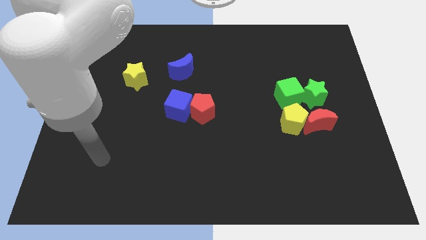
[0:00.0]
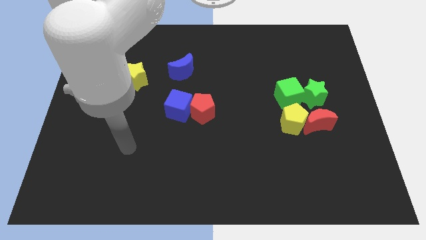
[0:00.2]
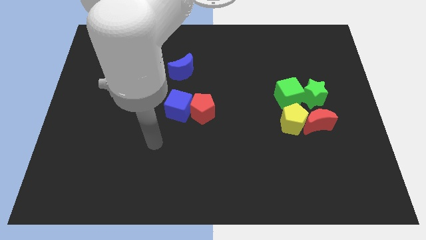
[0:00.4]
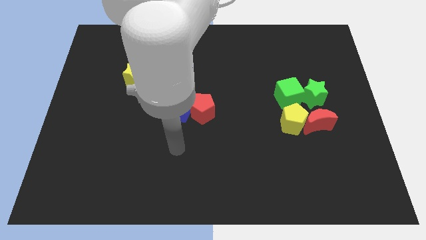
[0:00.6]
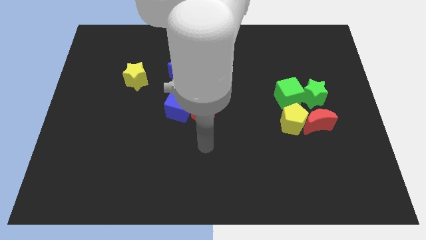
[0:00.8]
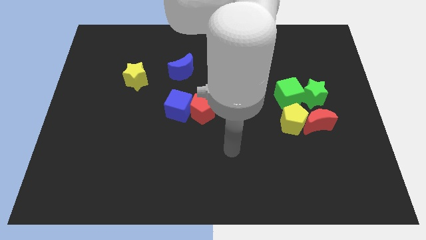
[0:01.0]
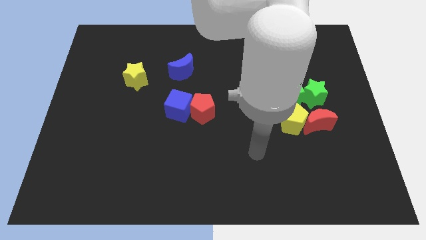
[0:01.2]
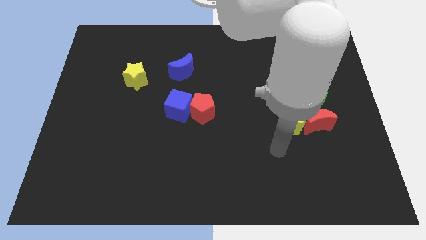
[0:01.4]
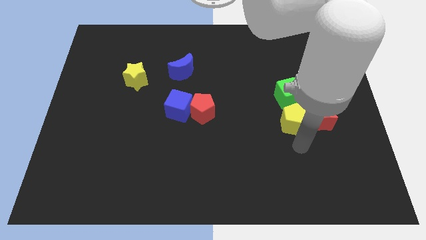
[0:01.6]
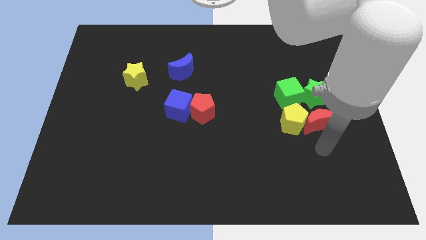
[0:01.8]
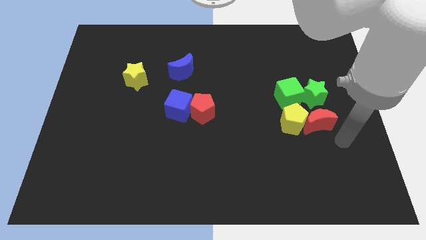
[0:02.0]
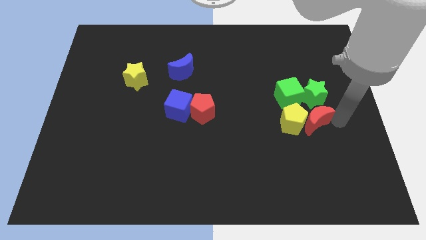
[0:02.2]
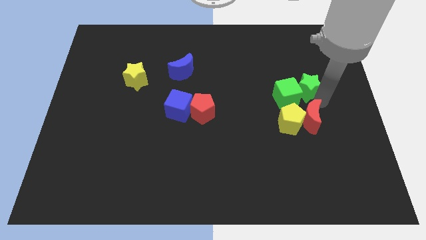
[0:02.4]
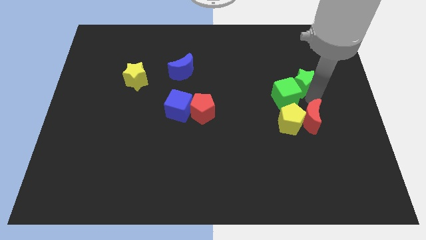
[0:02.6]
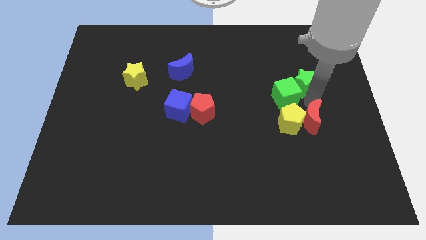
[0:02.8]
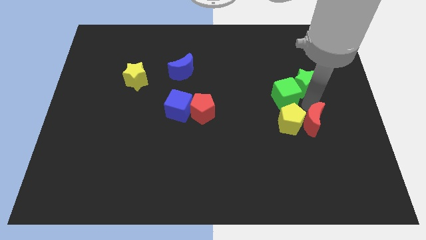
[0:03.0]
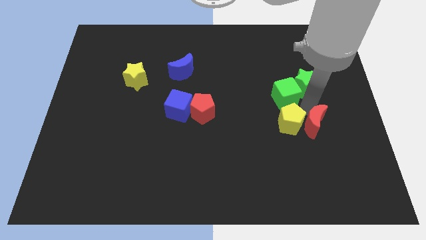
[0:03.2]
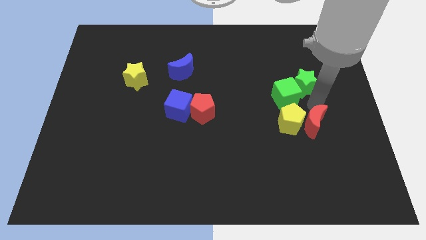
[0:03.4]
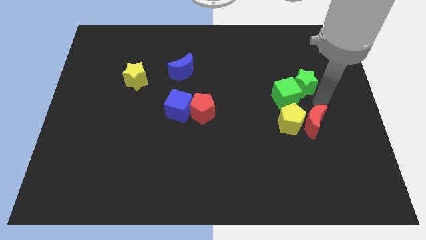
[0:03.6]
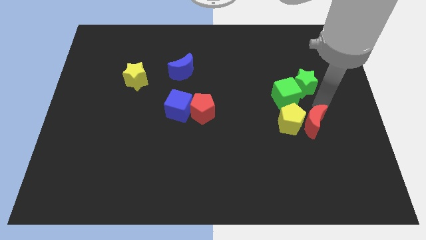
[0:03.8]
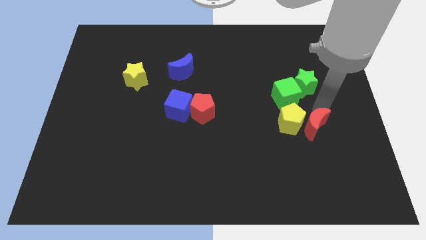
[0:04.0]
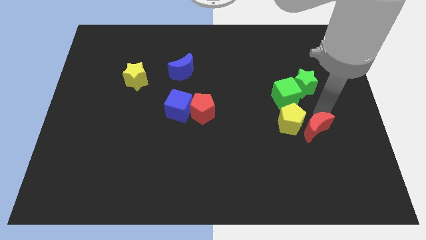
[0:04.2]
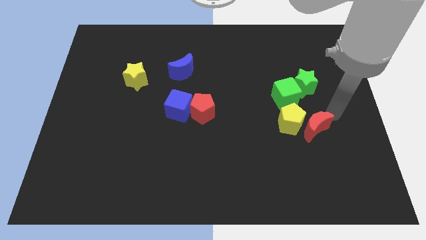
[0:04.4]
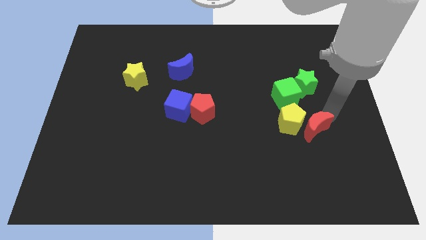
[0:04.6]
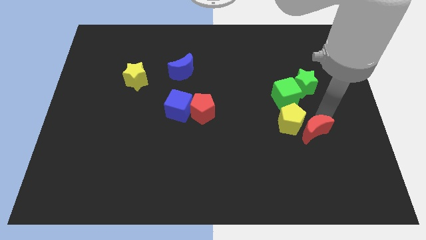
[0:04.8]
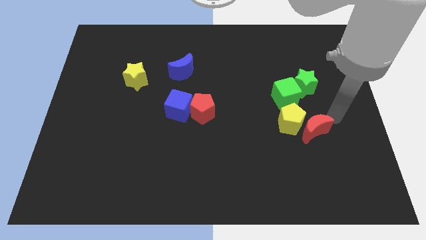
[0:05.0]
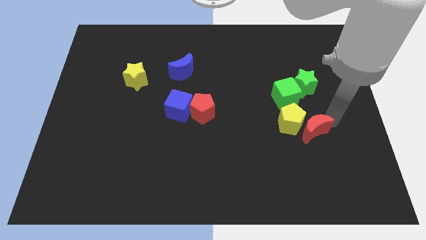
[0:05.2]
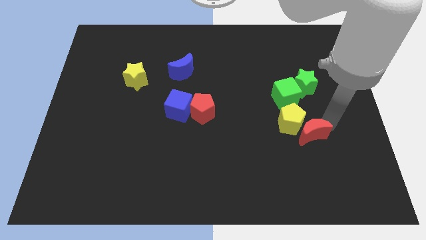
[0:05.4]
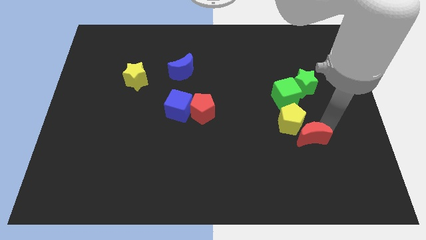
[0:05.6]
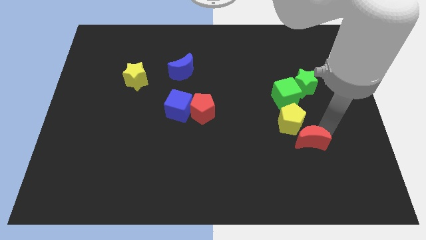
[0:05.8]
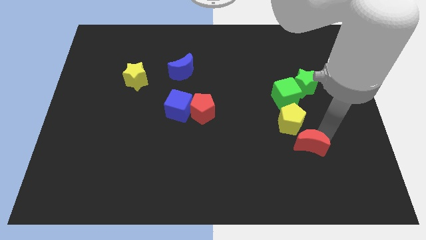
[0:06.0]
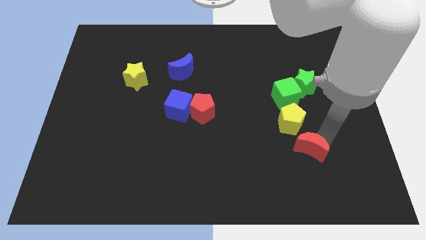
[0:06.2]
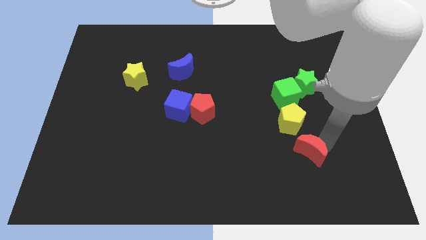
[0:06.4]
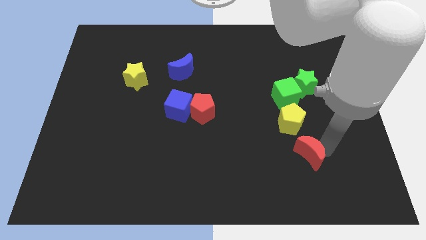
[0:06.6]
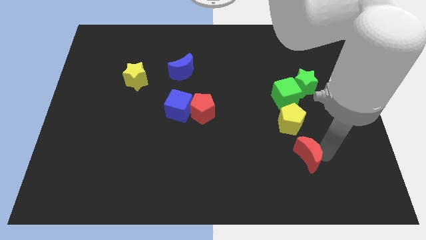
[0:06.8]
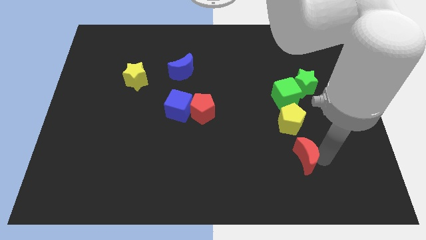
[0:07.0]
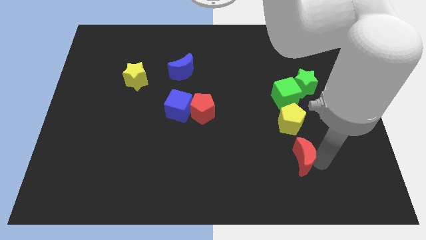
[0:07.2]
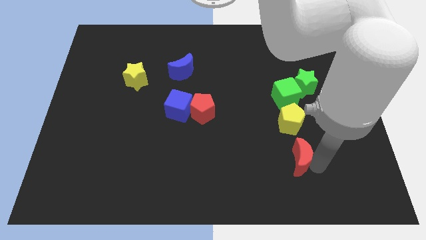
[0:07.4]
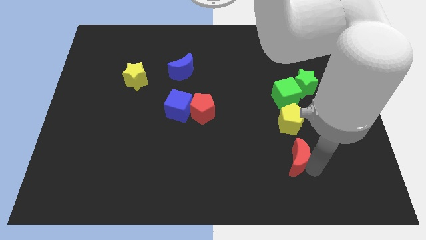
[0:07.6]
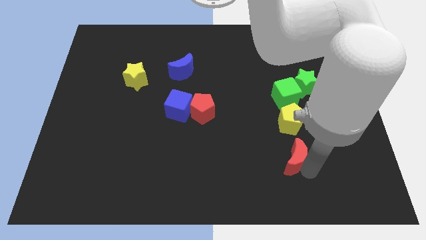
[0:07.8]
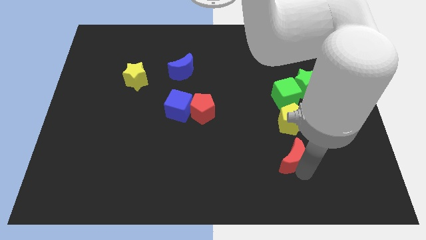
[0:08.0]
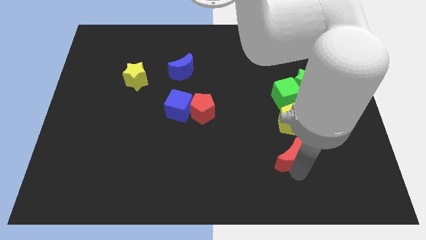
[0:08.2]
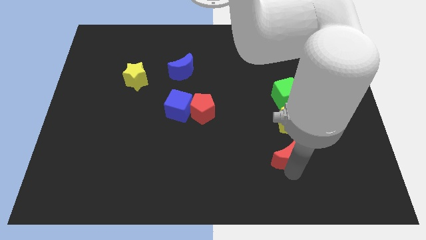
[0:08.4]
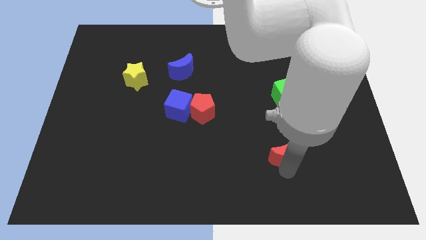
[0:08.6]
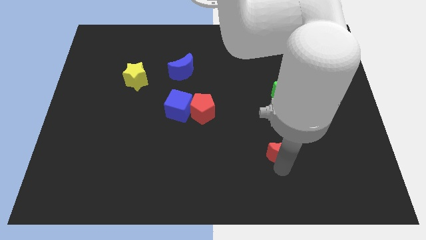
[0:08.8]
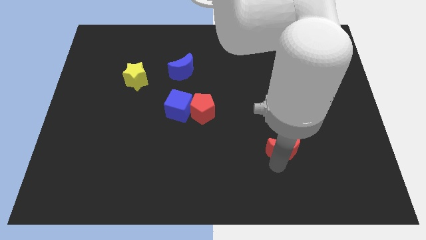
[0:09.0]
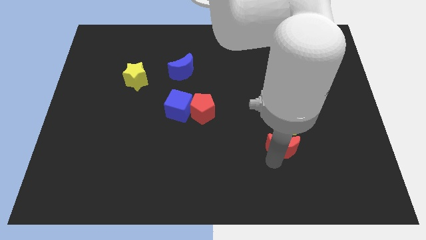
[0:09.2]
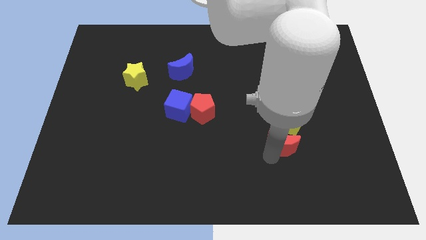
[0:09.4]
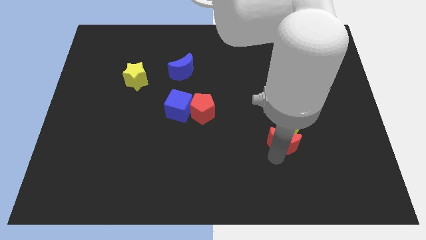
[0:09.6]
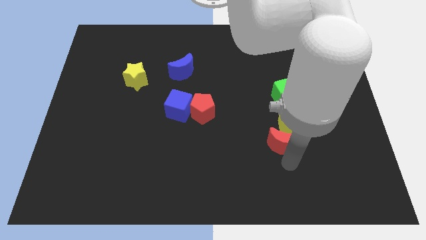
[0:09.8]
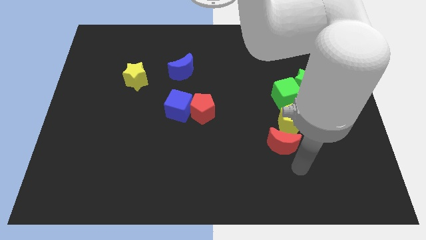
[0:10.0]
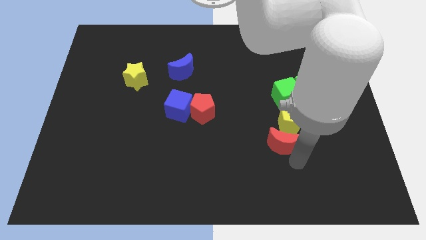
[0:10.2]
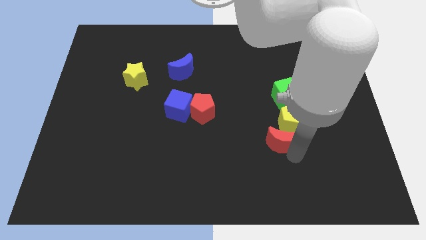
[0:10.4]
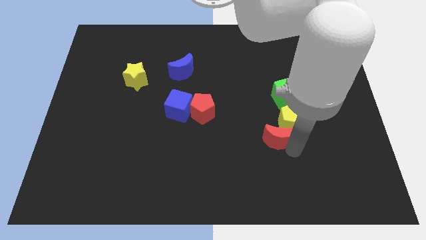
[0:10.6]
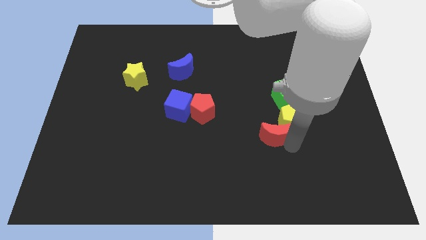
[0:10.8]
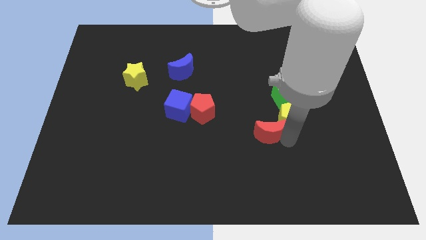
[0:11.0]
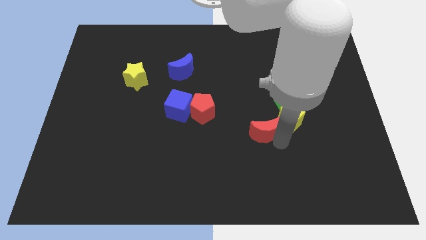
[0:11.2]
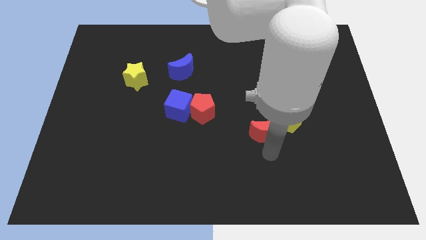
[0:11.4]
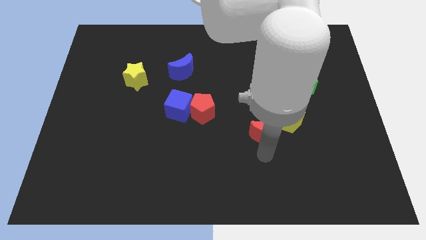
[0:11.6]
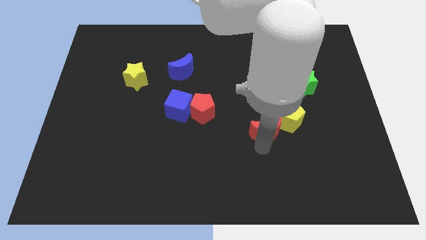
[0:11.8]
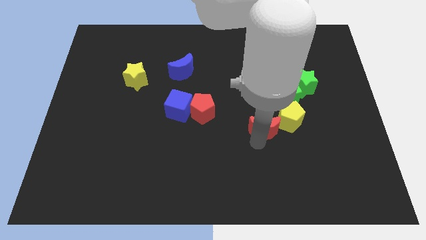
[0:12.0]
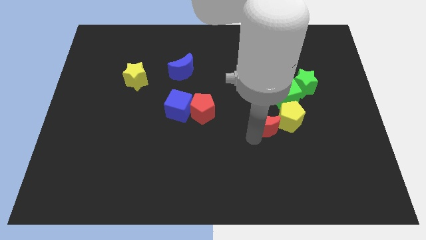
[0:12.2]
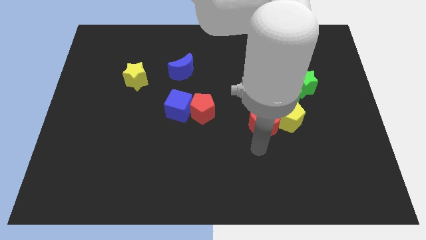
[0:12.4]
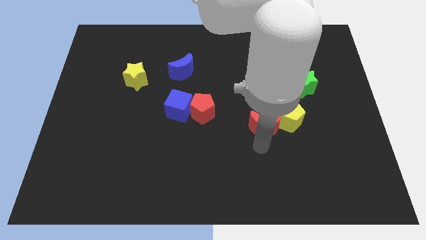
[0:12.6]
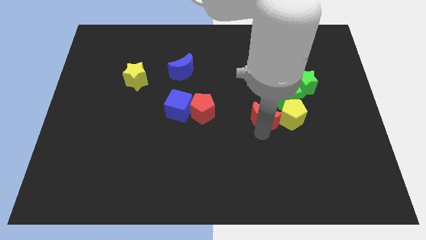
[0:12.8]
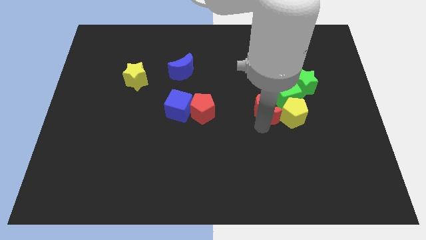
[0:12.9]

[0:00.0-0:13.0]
move the red moon to the top left side of the yellow pentagon

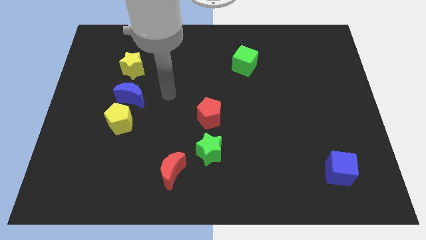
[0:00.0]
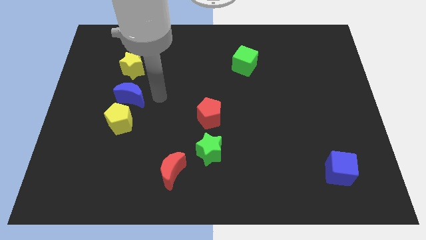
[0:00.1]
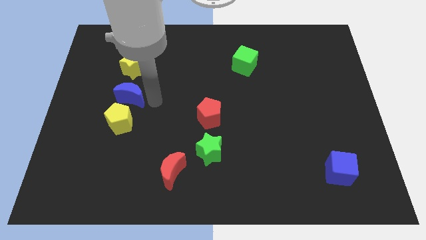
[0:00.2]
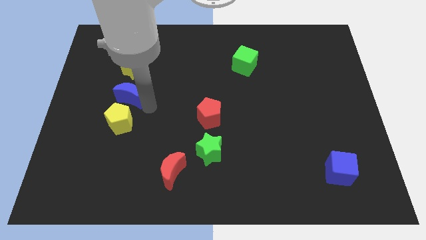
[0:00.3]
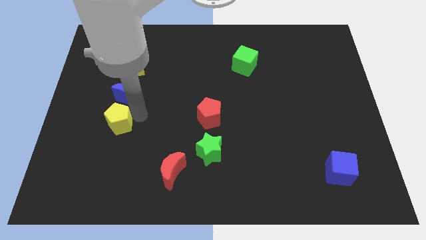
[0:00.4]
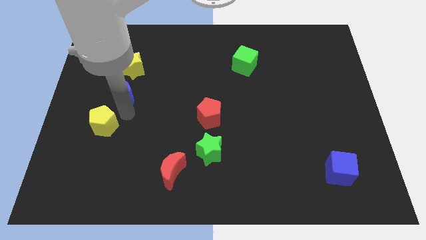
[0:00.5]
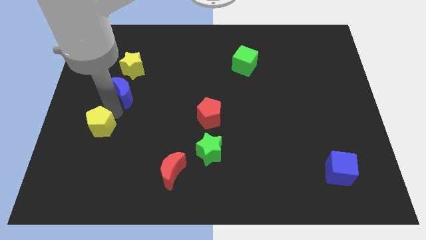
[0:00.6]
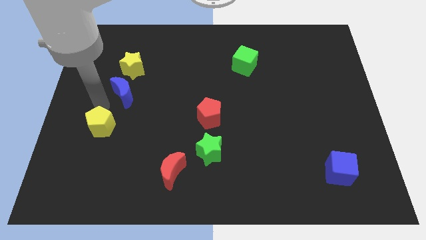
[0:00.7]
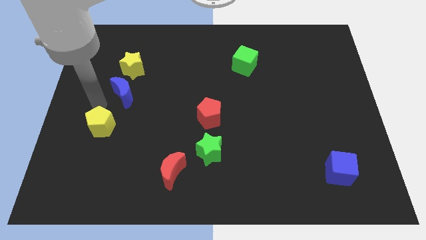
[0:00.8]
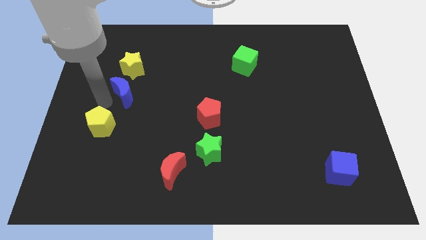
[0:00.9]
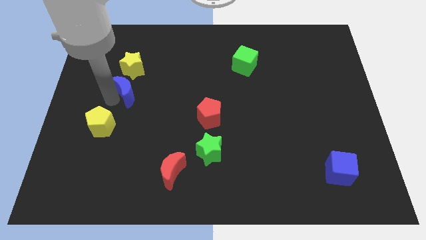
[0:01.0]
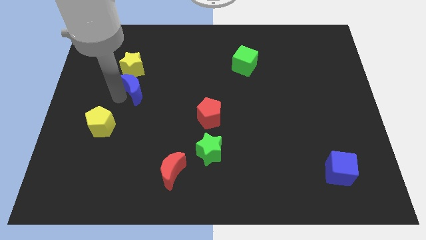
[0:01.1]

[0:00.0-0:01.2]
put the blue moon to the bottom right side of the yellow star
